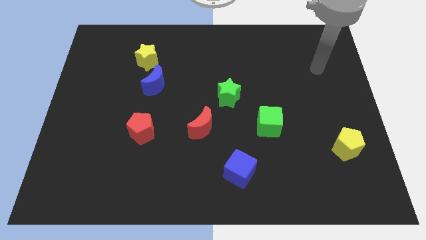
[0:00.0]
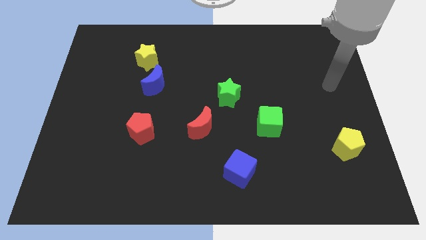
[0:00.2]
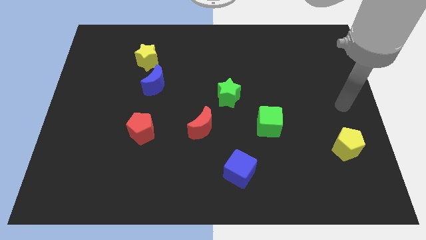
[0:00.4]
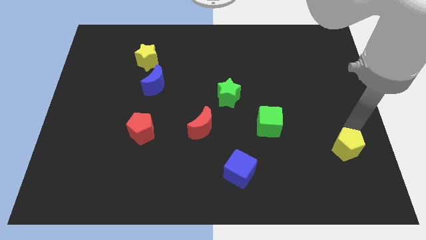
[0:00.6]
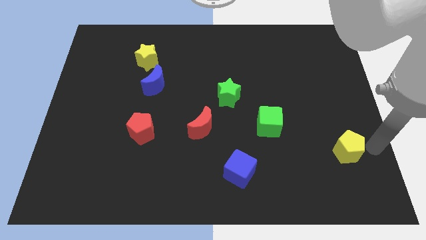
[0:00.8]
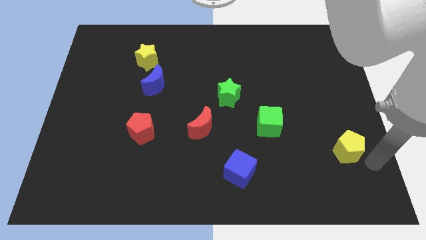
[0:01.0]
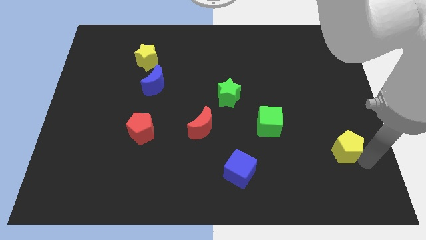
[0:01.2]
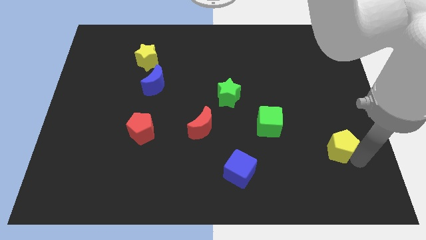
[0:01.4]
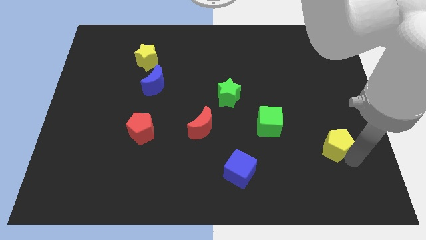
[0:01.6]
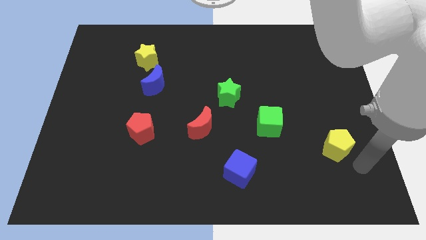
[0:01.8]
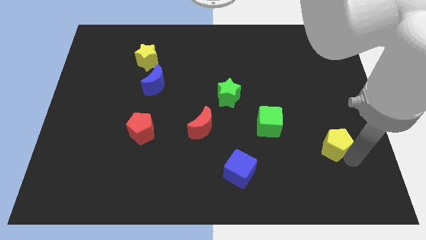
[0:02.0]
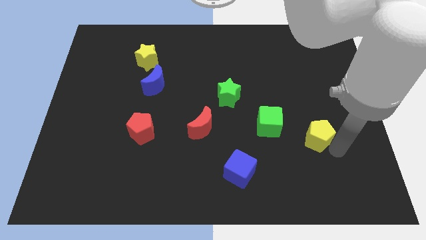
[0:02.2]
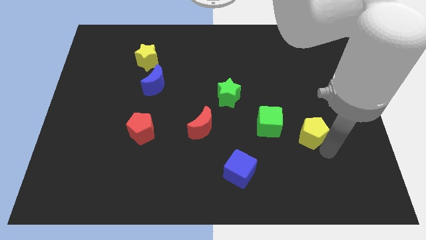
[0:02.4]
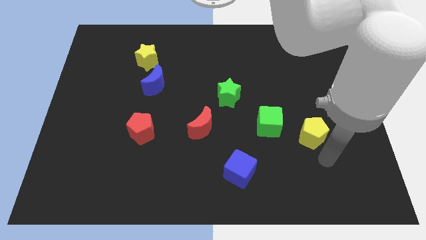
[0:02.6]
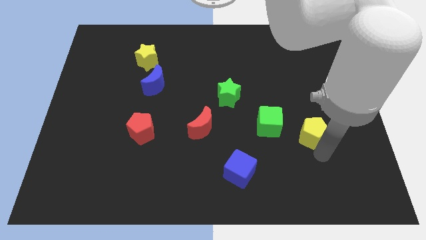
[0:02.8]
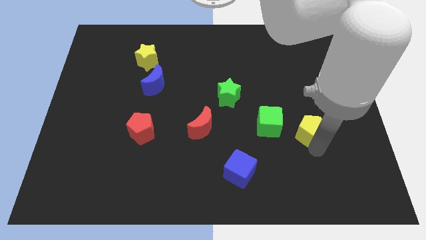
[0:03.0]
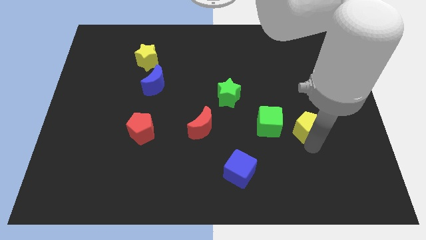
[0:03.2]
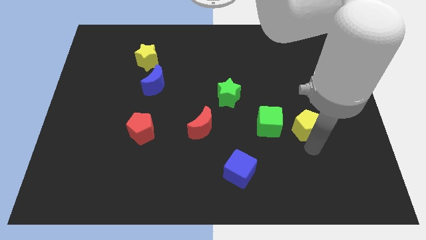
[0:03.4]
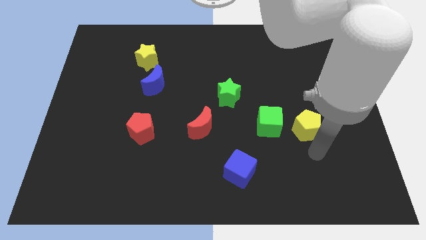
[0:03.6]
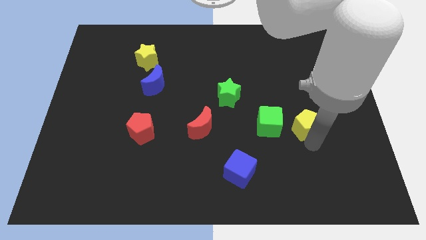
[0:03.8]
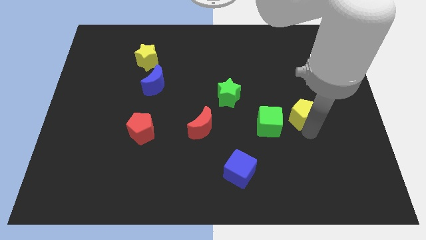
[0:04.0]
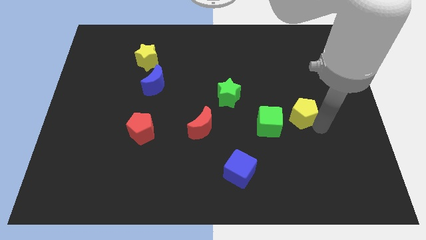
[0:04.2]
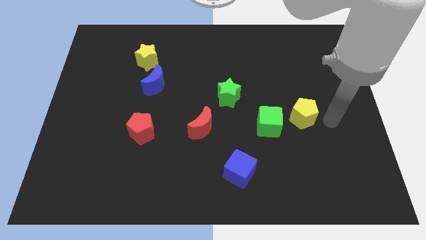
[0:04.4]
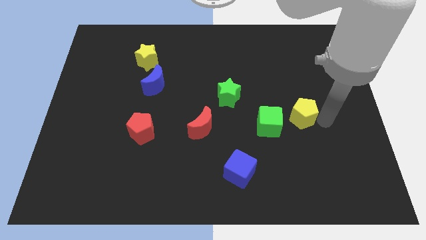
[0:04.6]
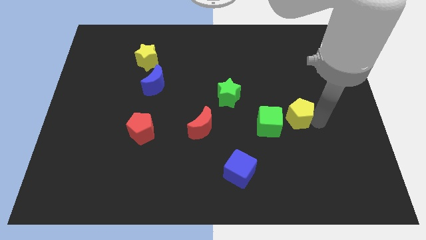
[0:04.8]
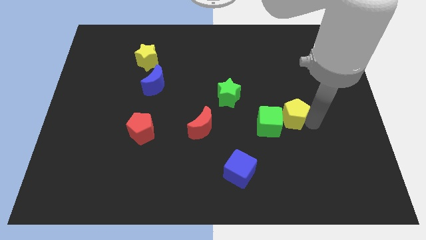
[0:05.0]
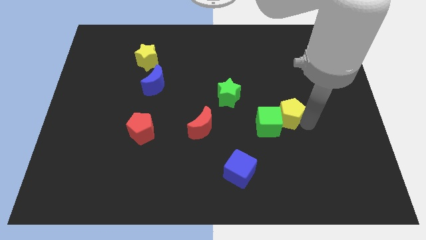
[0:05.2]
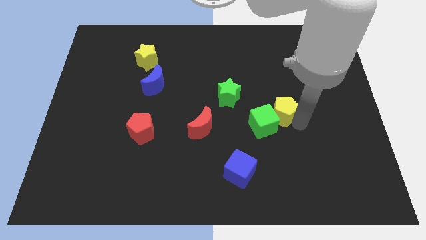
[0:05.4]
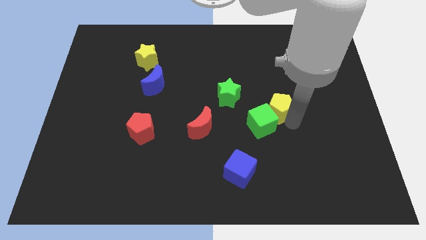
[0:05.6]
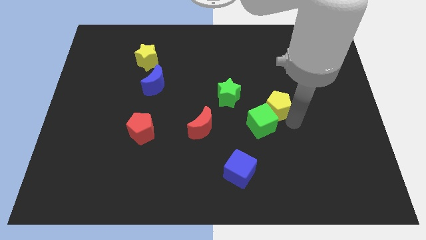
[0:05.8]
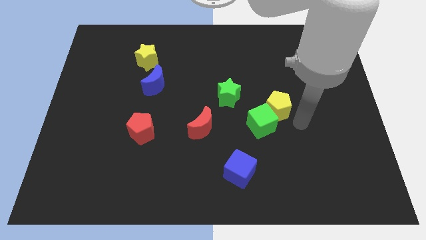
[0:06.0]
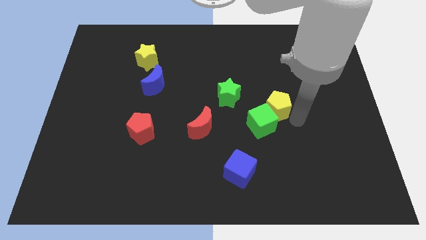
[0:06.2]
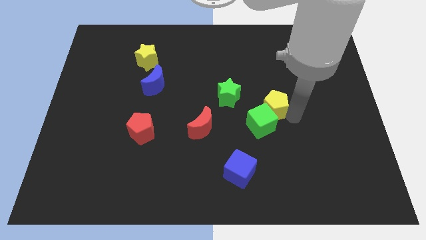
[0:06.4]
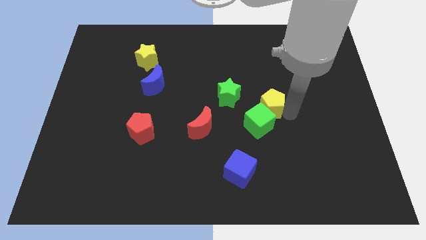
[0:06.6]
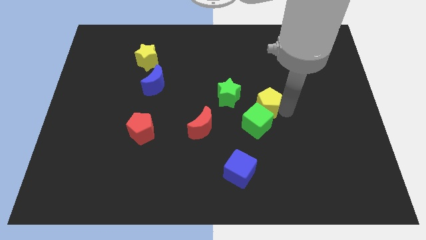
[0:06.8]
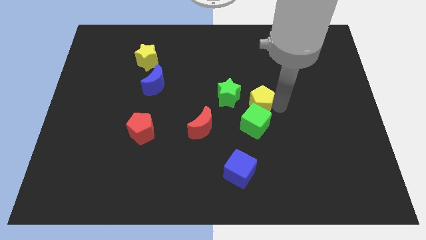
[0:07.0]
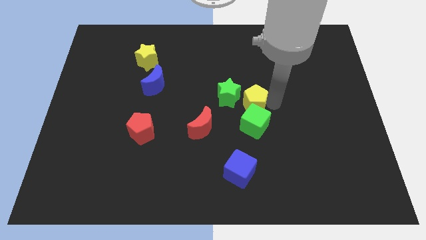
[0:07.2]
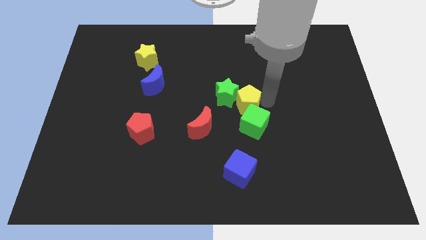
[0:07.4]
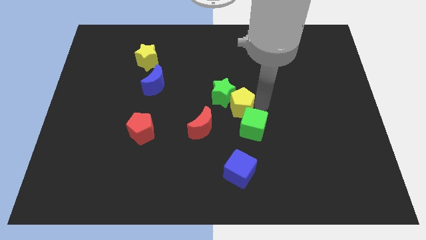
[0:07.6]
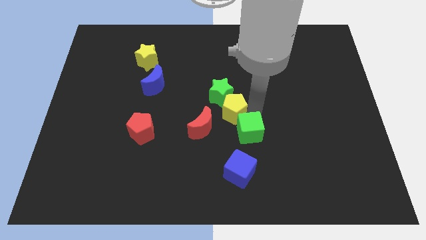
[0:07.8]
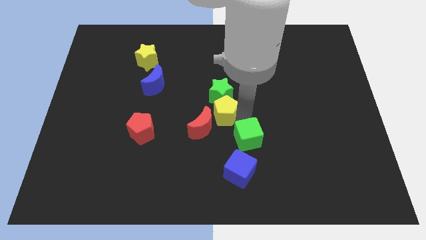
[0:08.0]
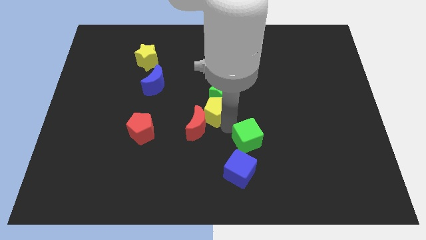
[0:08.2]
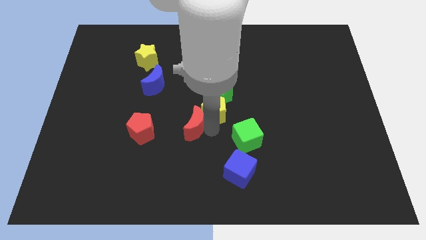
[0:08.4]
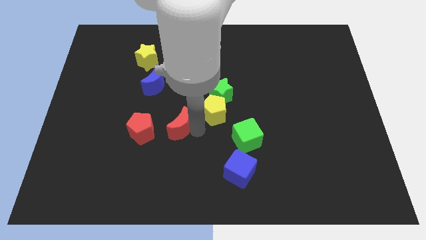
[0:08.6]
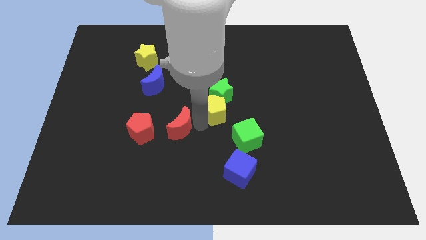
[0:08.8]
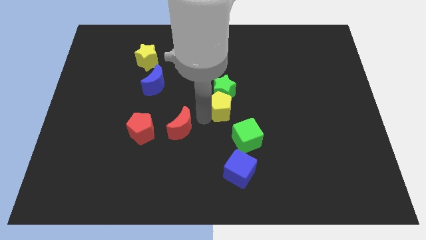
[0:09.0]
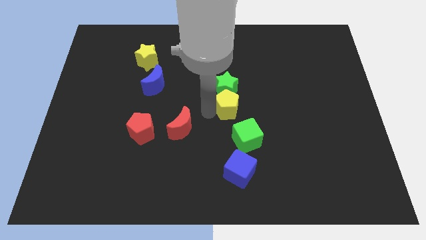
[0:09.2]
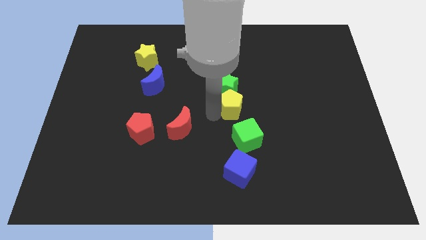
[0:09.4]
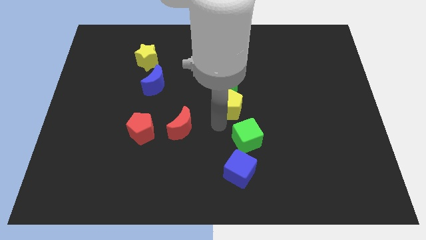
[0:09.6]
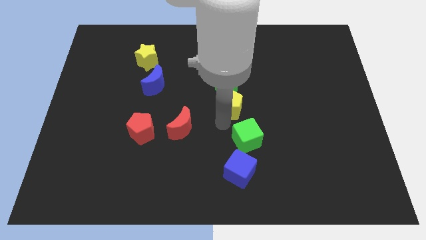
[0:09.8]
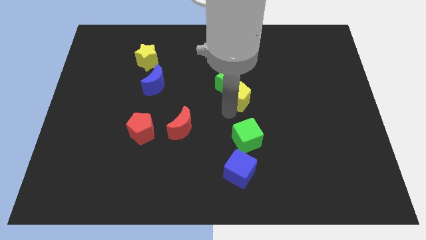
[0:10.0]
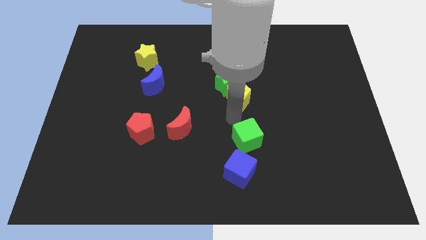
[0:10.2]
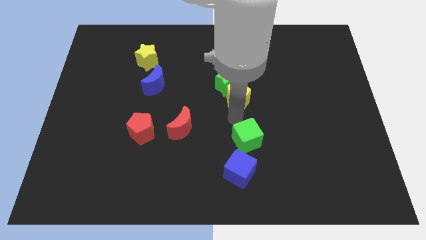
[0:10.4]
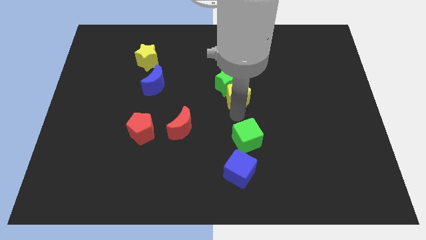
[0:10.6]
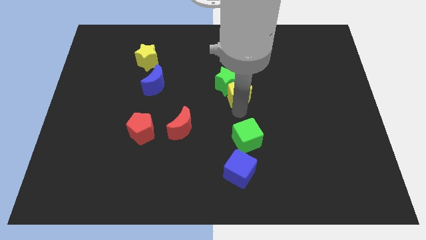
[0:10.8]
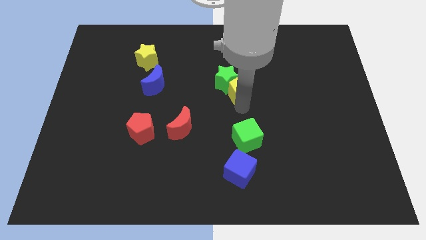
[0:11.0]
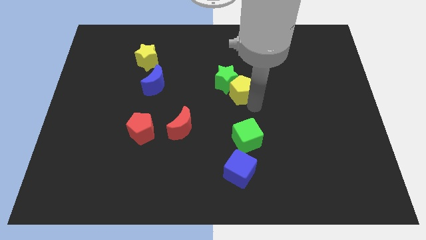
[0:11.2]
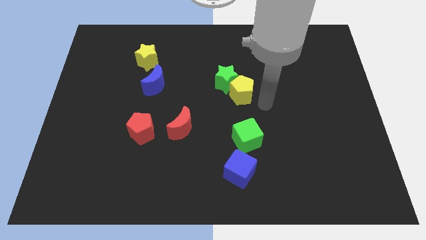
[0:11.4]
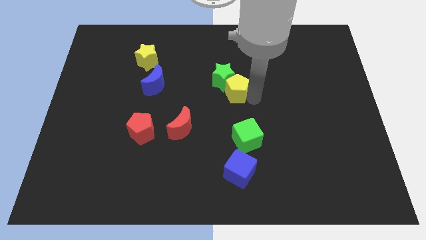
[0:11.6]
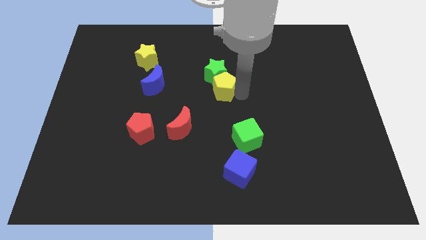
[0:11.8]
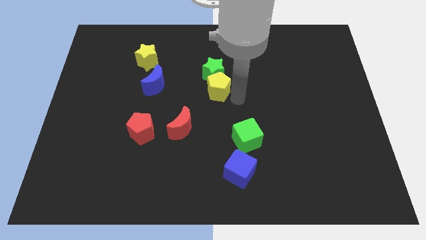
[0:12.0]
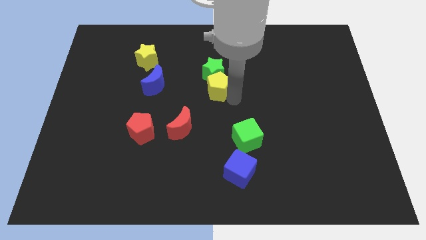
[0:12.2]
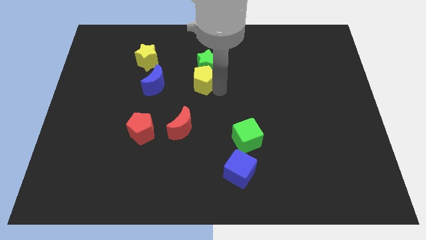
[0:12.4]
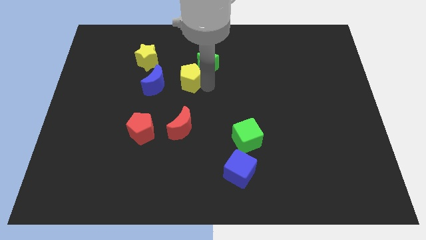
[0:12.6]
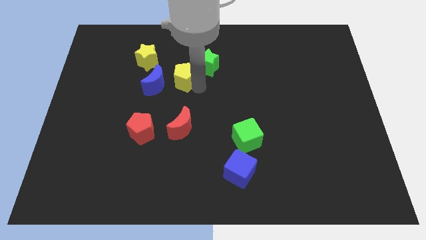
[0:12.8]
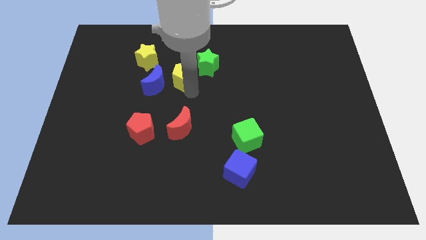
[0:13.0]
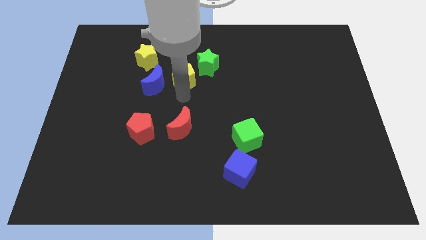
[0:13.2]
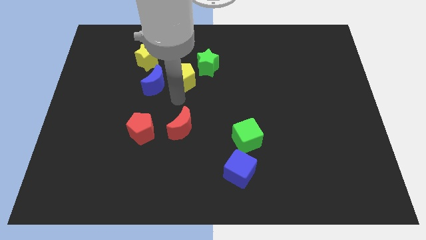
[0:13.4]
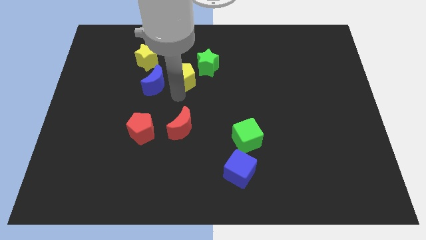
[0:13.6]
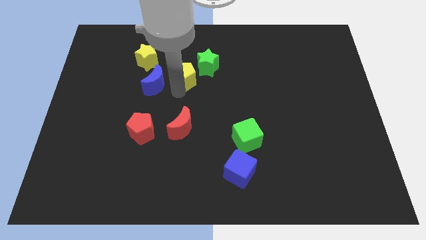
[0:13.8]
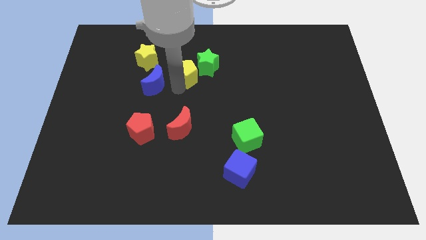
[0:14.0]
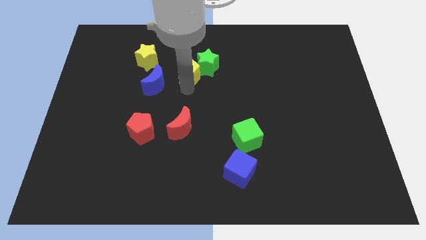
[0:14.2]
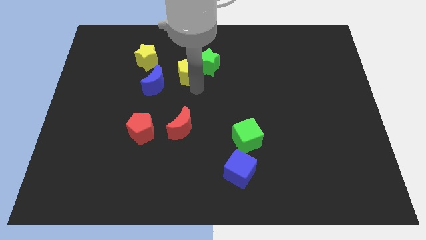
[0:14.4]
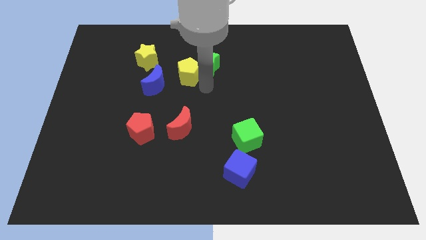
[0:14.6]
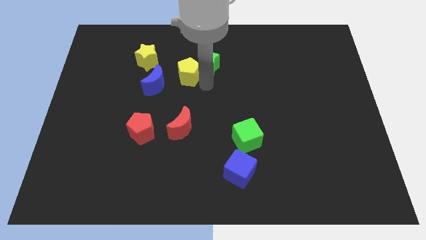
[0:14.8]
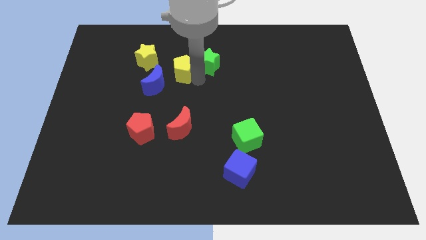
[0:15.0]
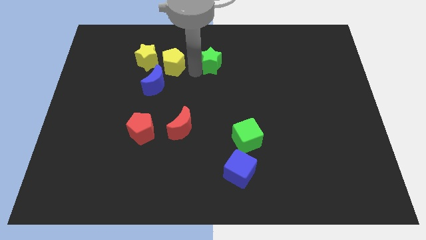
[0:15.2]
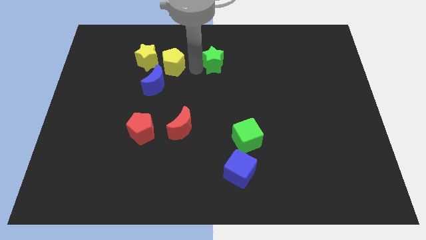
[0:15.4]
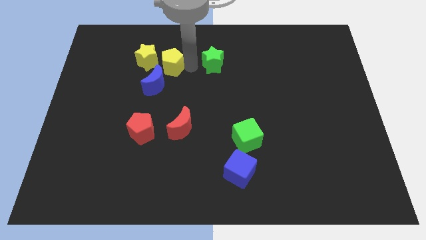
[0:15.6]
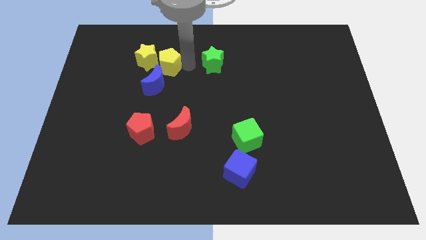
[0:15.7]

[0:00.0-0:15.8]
put the yellow pentagon next to the yellow star
